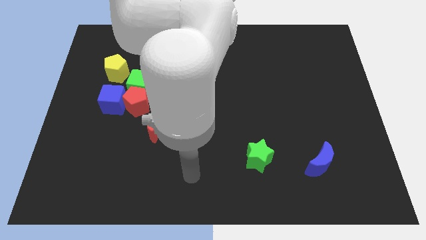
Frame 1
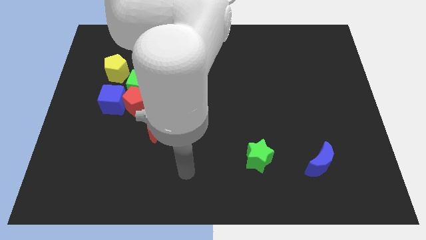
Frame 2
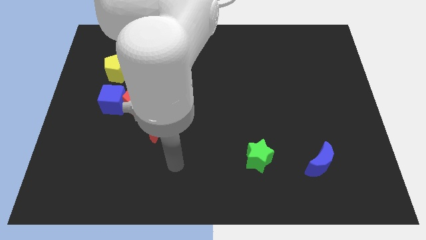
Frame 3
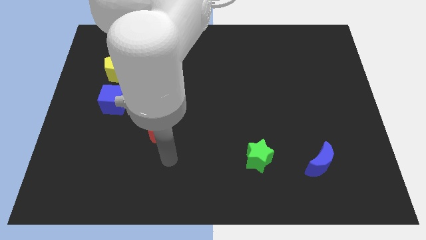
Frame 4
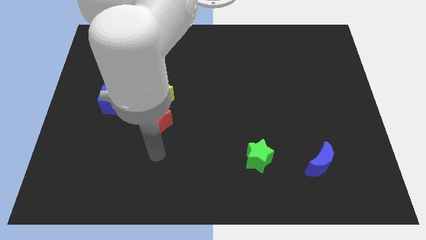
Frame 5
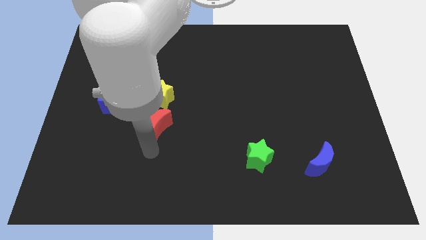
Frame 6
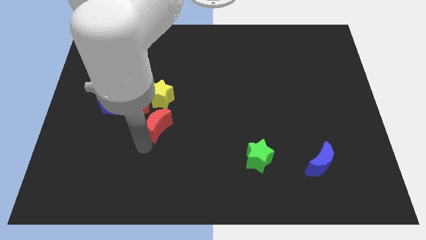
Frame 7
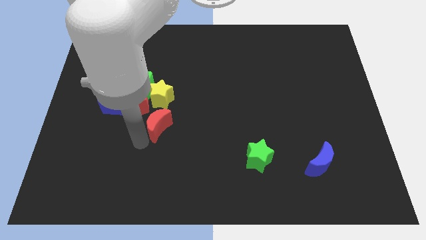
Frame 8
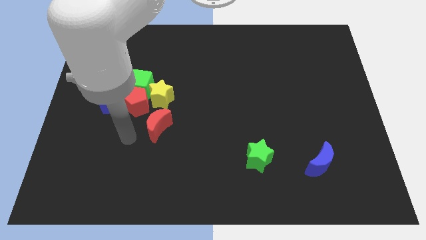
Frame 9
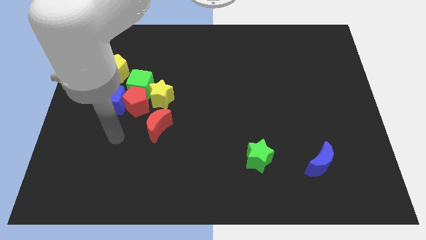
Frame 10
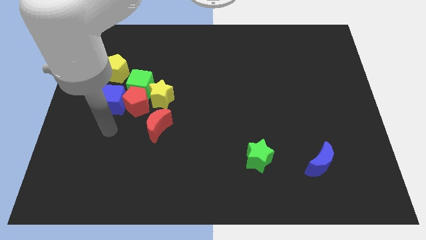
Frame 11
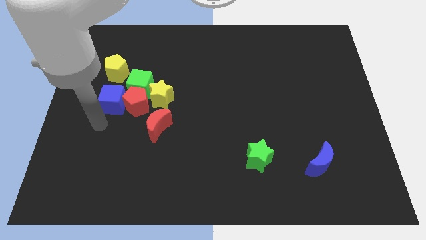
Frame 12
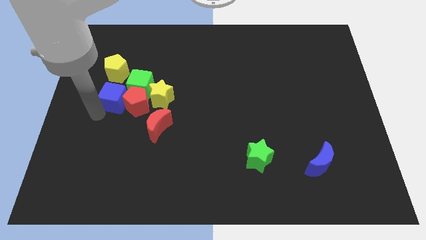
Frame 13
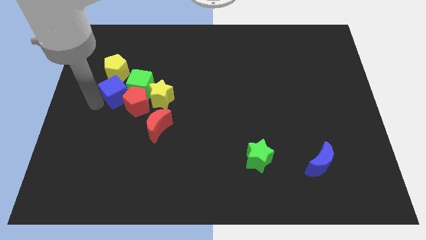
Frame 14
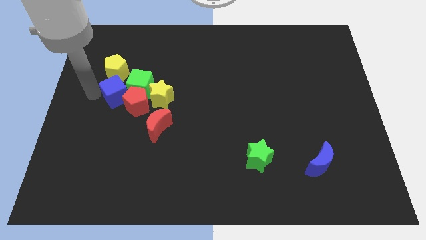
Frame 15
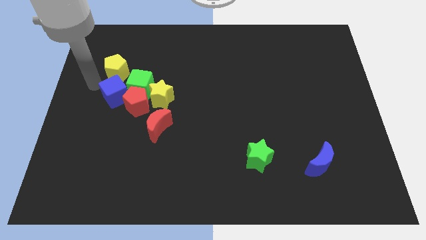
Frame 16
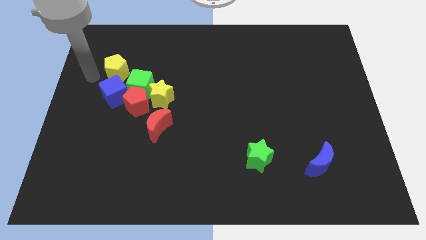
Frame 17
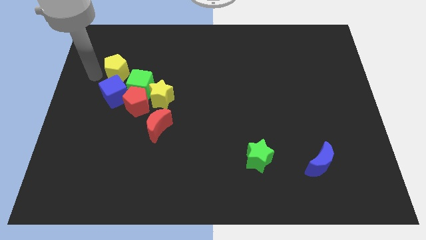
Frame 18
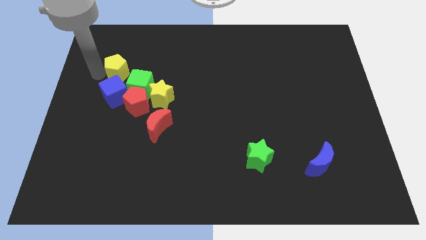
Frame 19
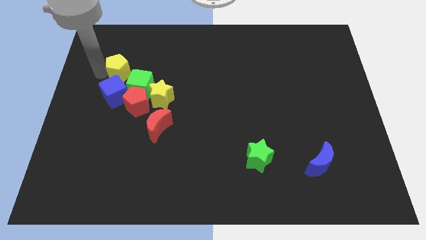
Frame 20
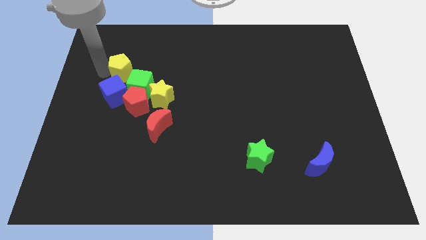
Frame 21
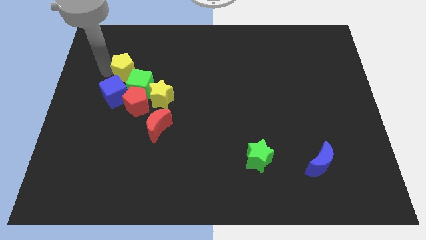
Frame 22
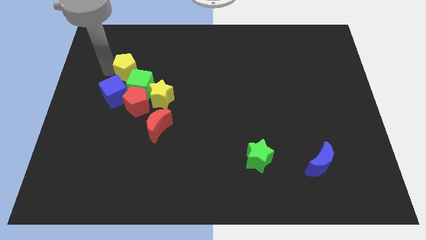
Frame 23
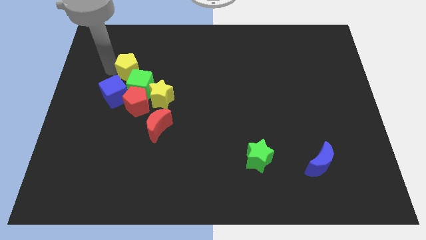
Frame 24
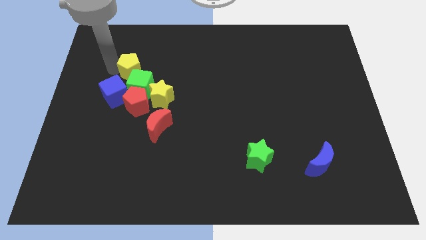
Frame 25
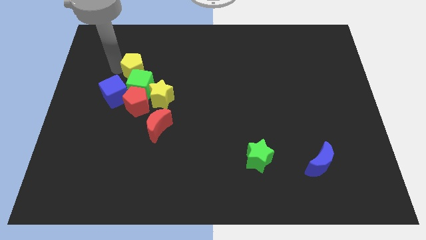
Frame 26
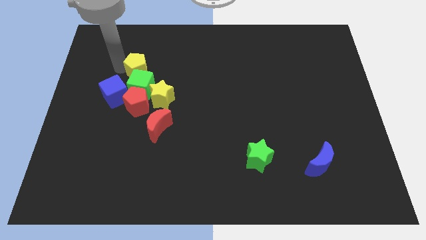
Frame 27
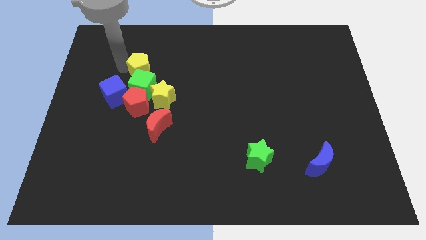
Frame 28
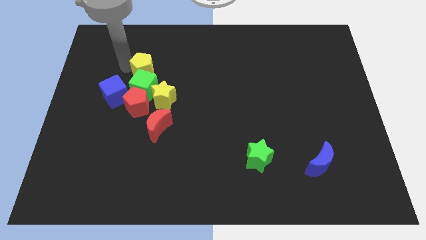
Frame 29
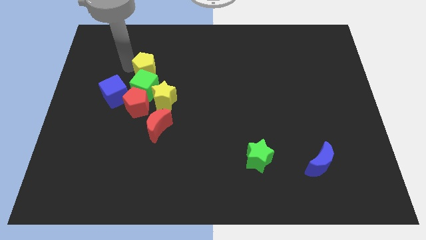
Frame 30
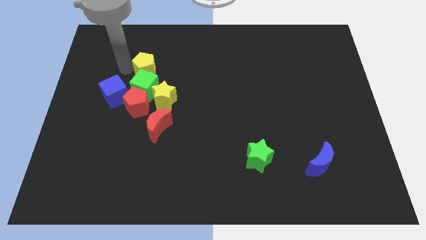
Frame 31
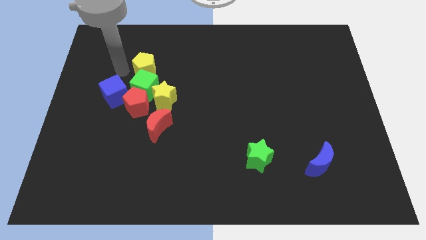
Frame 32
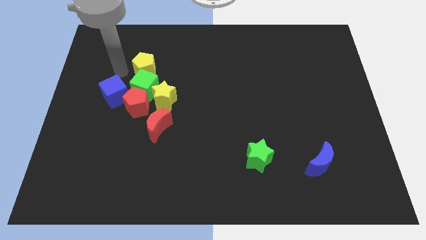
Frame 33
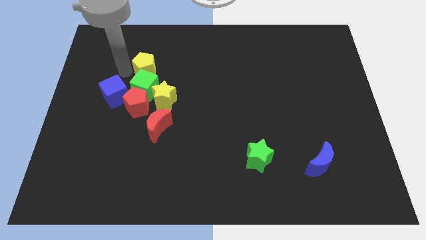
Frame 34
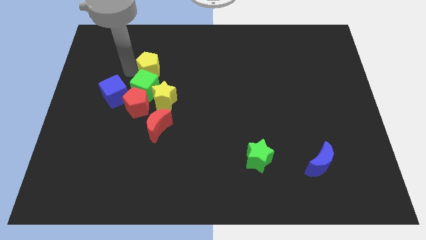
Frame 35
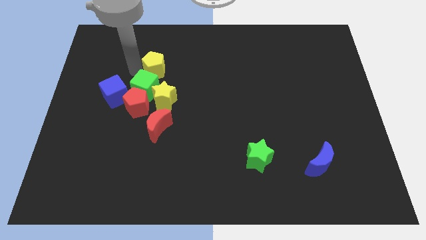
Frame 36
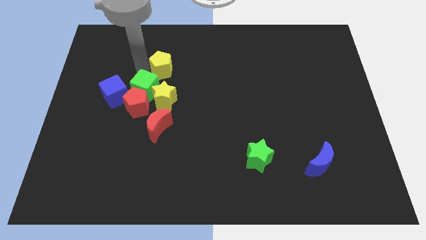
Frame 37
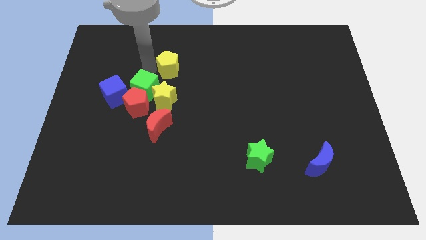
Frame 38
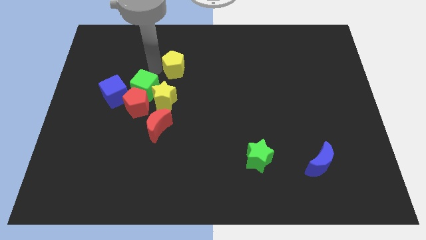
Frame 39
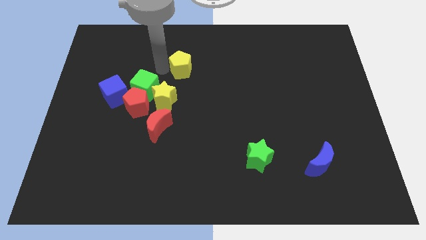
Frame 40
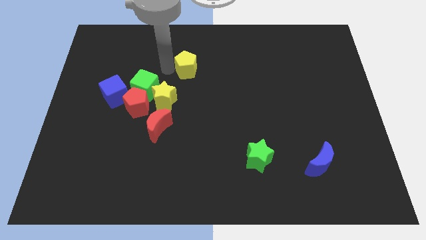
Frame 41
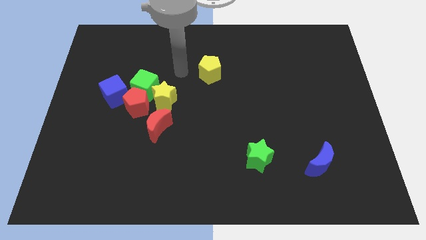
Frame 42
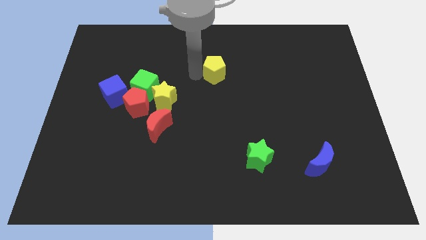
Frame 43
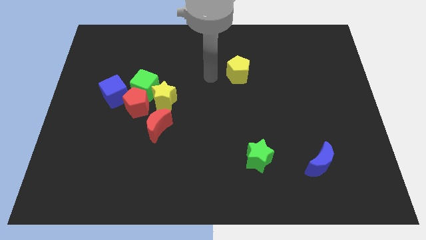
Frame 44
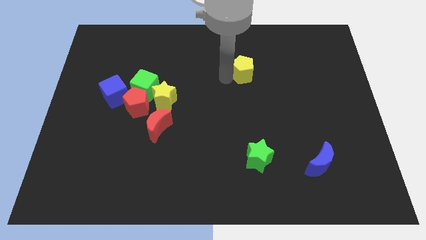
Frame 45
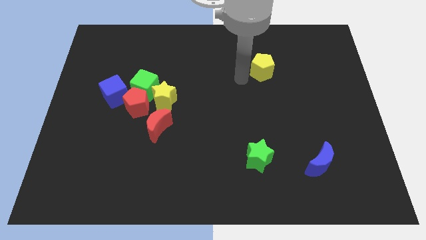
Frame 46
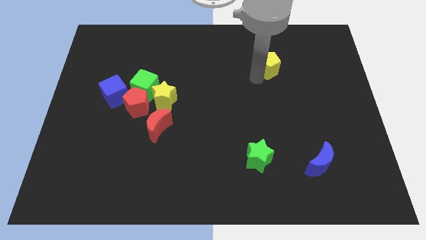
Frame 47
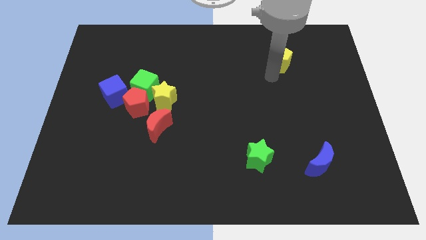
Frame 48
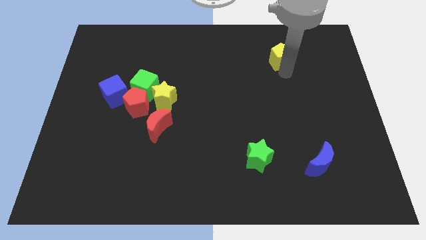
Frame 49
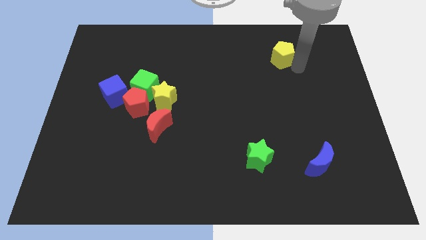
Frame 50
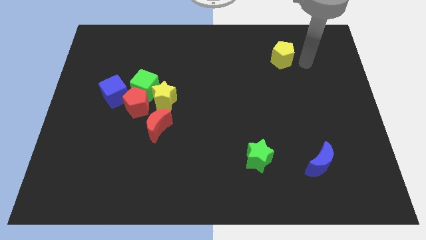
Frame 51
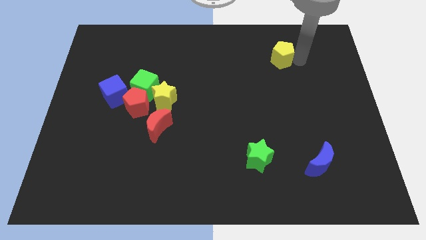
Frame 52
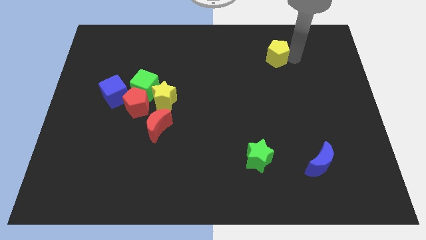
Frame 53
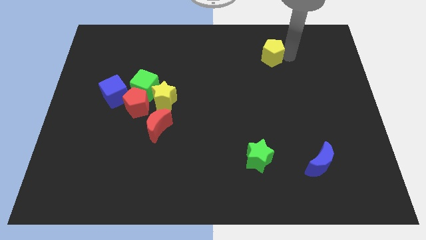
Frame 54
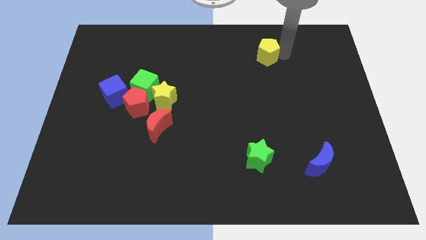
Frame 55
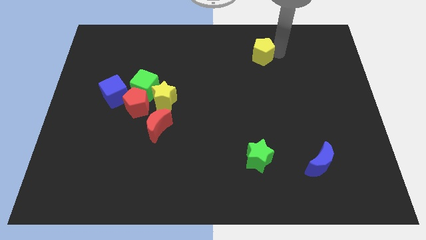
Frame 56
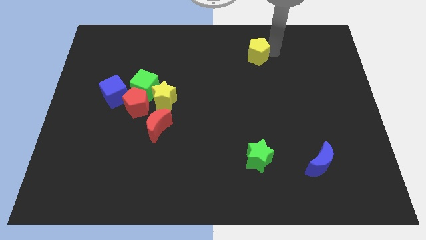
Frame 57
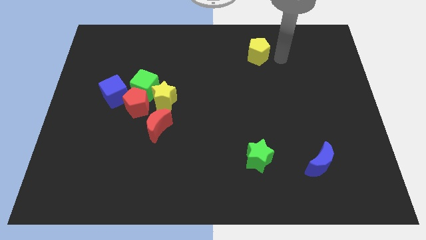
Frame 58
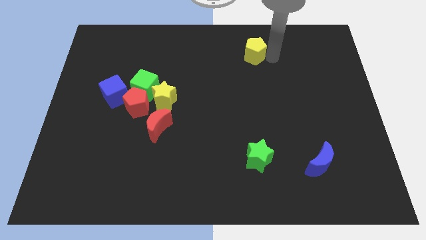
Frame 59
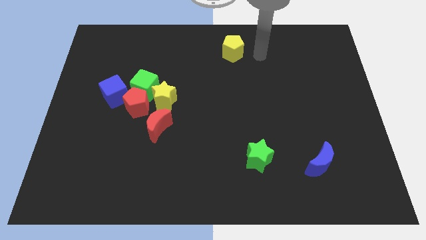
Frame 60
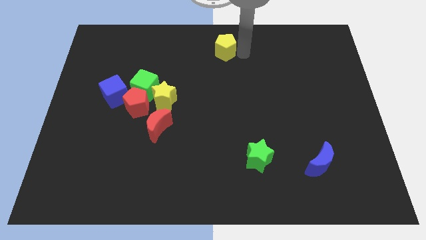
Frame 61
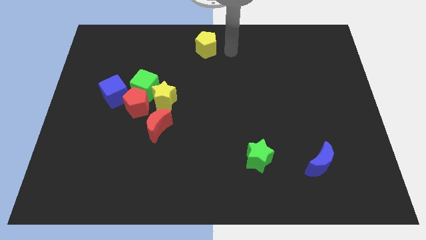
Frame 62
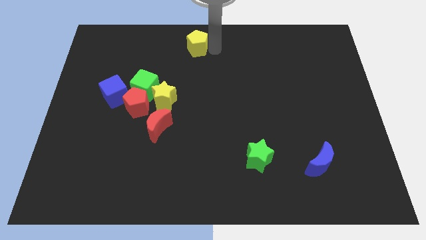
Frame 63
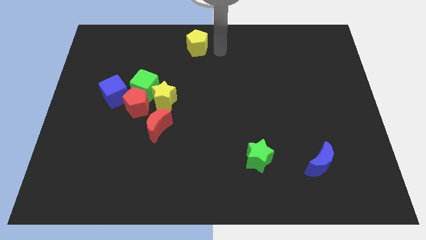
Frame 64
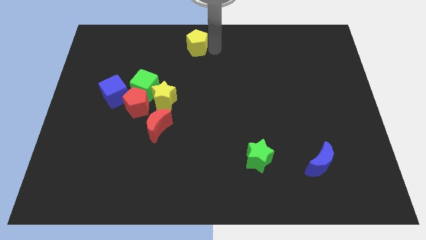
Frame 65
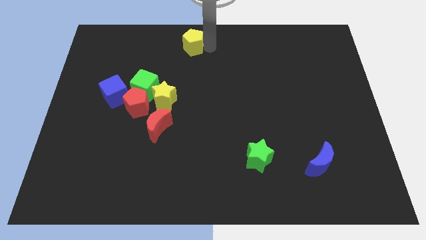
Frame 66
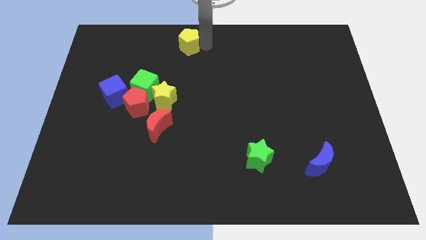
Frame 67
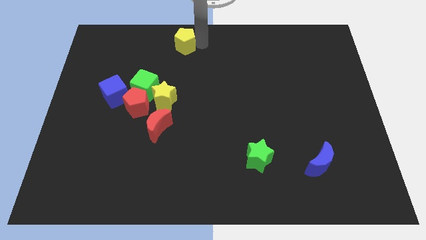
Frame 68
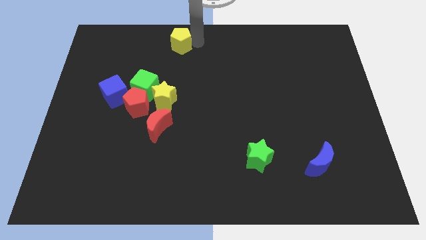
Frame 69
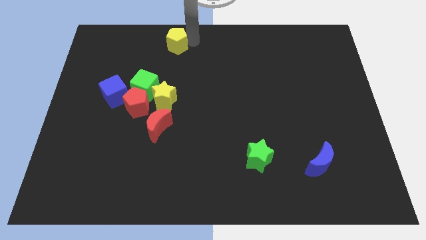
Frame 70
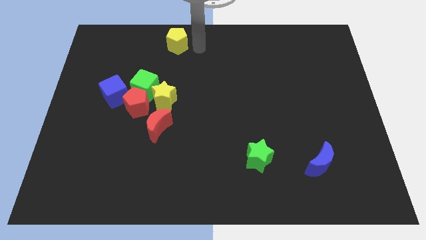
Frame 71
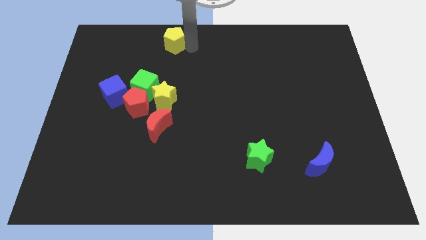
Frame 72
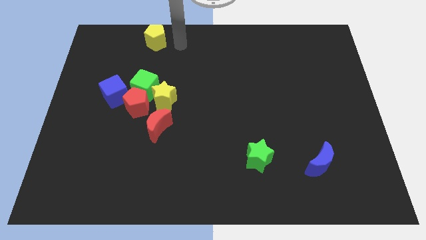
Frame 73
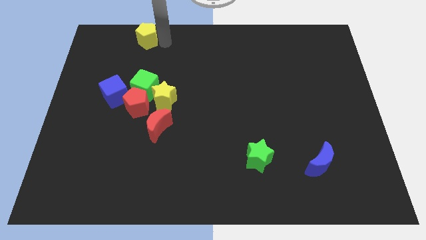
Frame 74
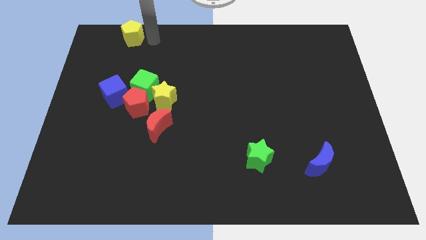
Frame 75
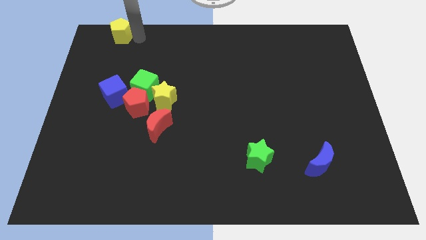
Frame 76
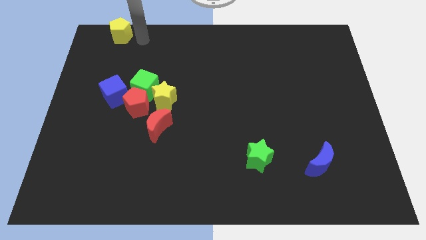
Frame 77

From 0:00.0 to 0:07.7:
put the yellow pentagon to the upper left corner
